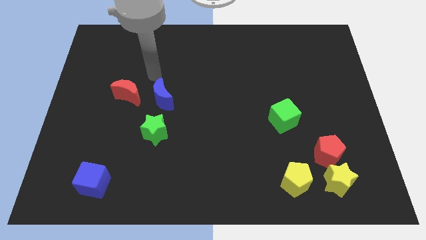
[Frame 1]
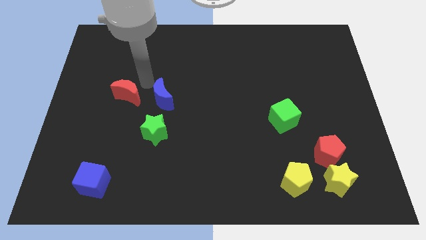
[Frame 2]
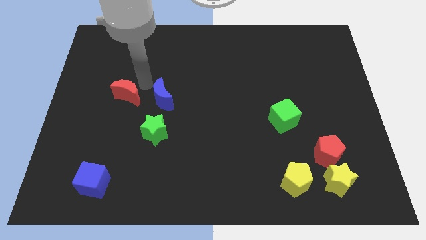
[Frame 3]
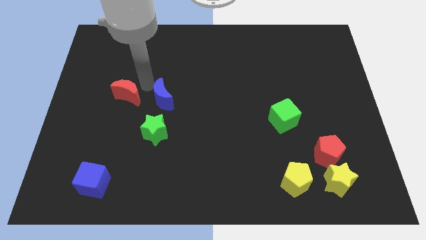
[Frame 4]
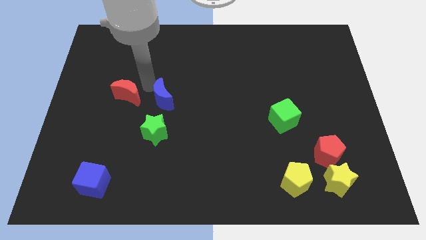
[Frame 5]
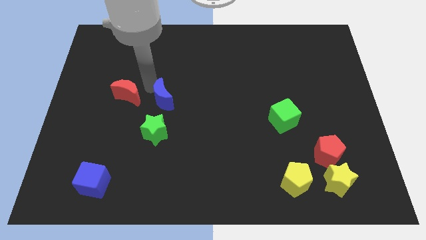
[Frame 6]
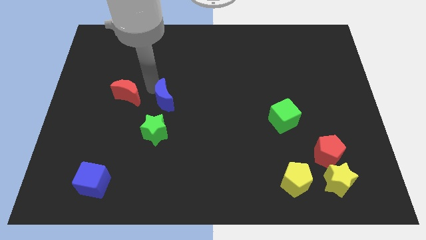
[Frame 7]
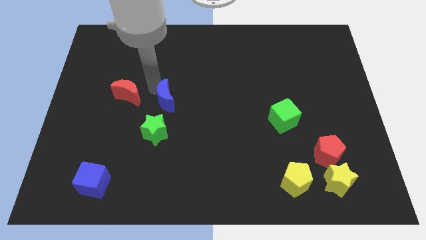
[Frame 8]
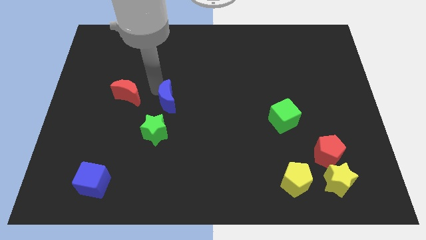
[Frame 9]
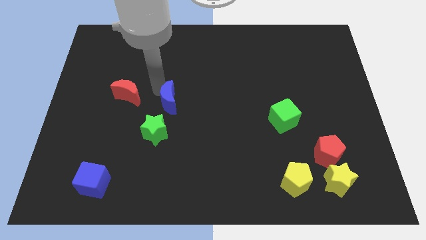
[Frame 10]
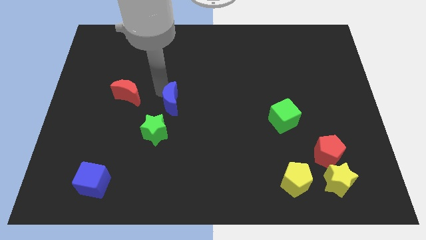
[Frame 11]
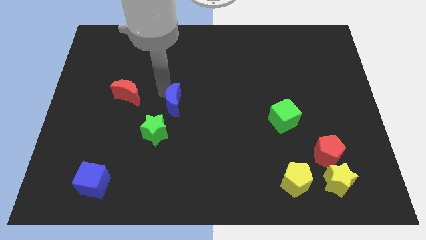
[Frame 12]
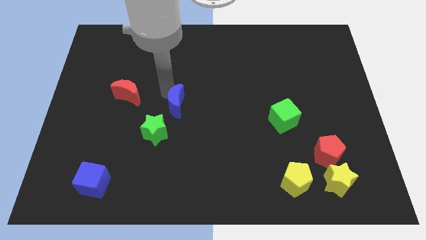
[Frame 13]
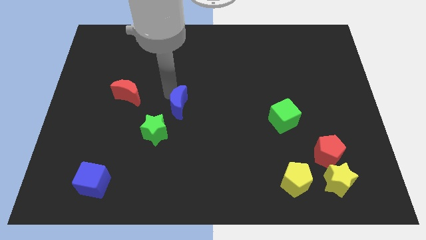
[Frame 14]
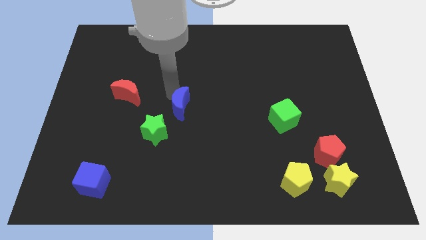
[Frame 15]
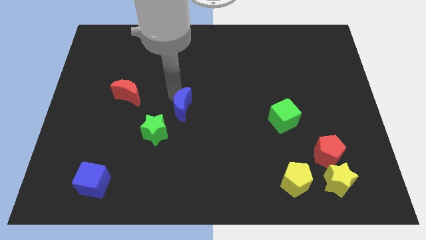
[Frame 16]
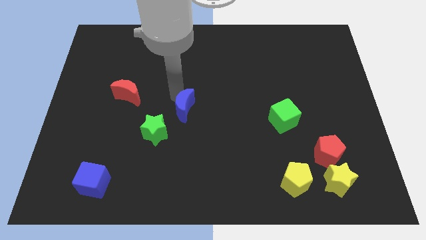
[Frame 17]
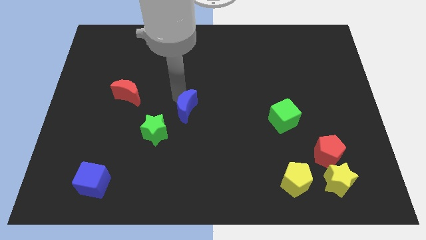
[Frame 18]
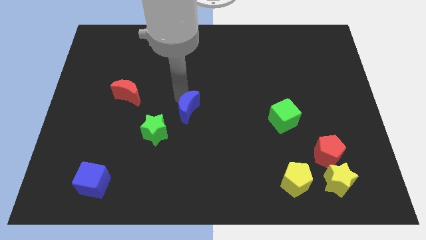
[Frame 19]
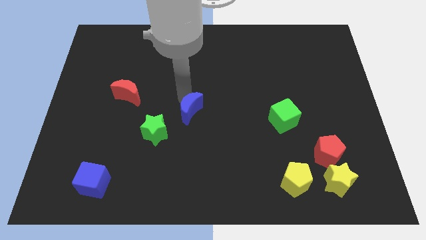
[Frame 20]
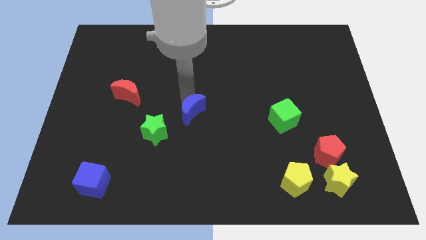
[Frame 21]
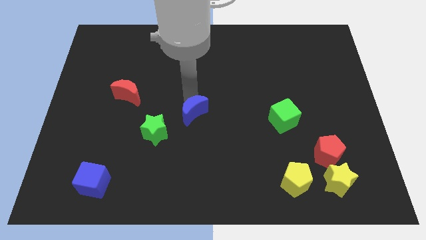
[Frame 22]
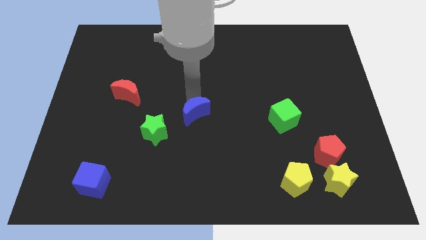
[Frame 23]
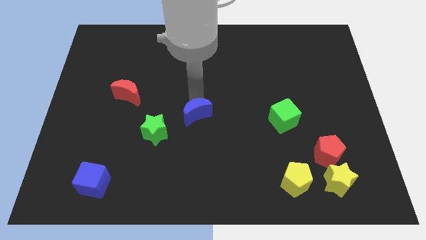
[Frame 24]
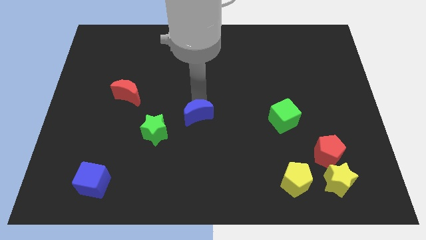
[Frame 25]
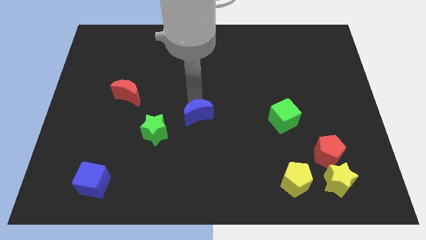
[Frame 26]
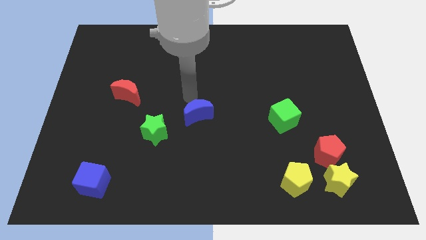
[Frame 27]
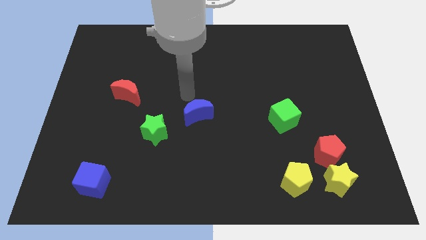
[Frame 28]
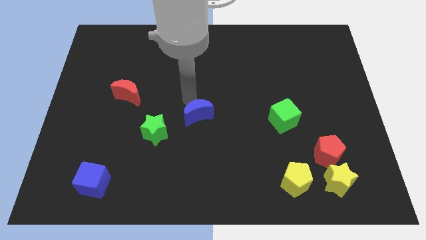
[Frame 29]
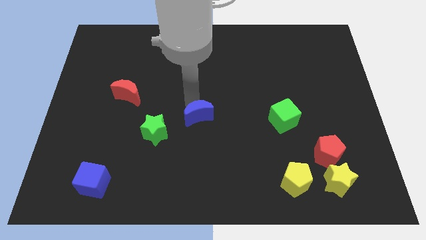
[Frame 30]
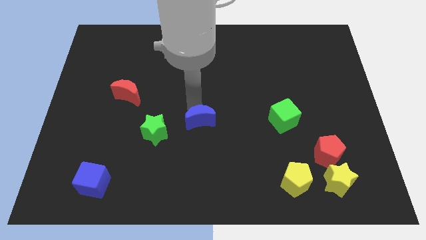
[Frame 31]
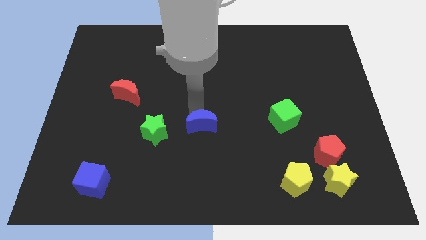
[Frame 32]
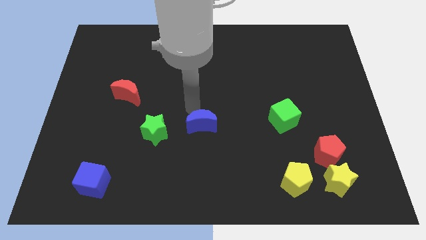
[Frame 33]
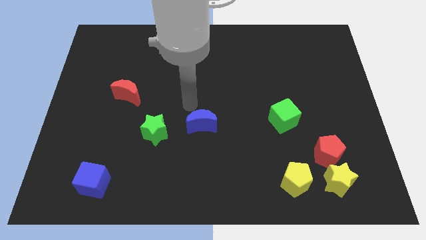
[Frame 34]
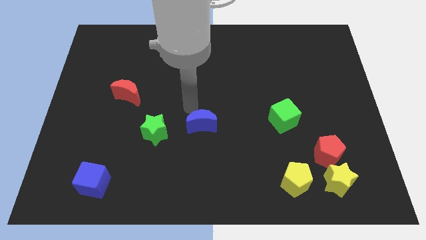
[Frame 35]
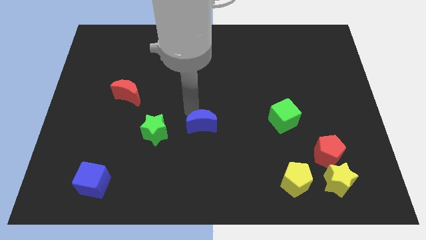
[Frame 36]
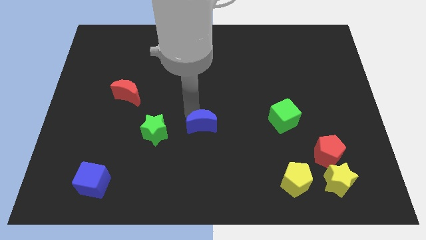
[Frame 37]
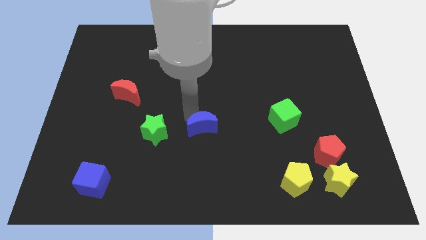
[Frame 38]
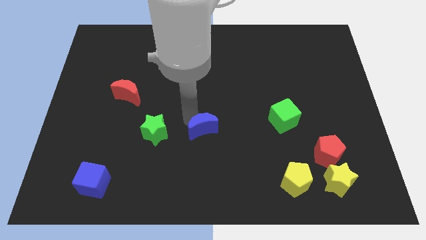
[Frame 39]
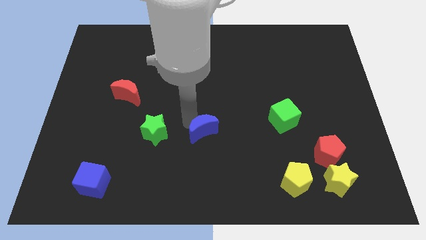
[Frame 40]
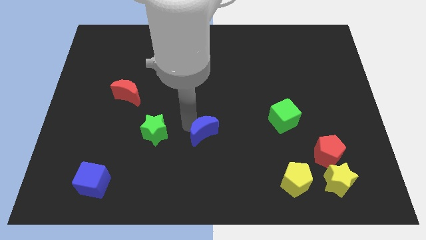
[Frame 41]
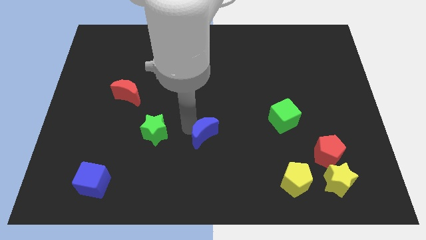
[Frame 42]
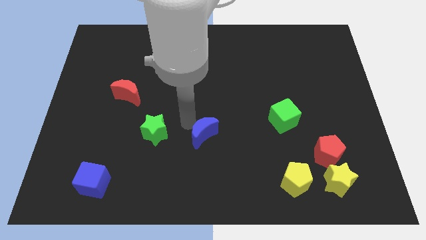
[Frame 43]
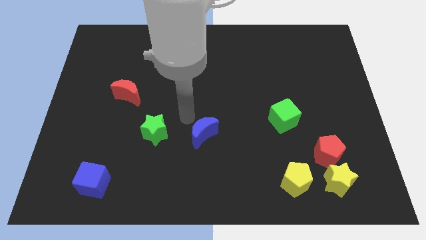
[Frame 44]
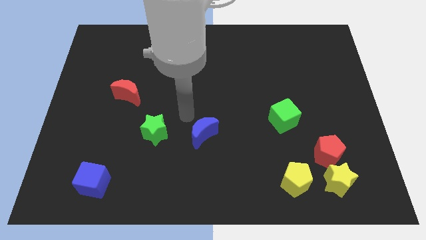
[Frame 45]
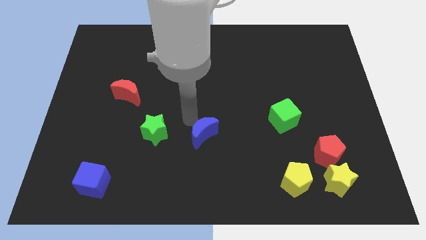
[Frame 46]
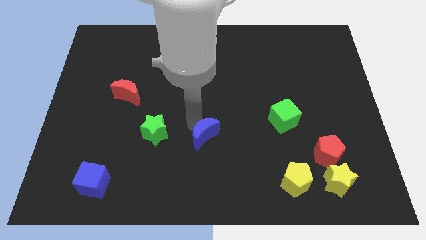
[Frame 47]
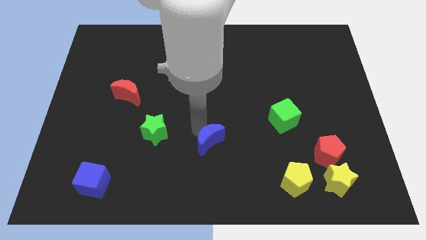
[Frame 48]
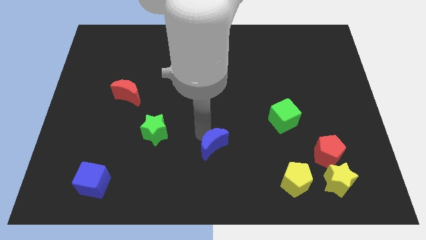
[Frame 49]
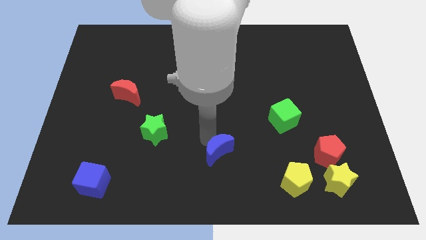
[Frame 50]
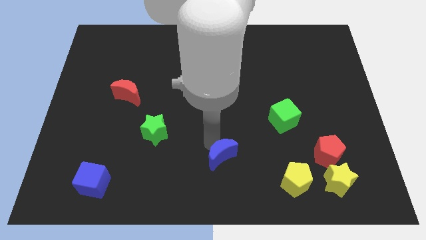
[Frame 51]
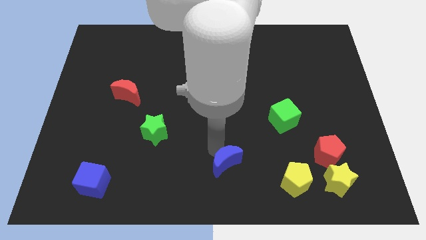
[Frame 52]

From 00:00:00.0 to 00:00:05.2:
move the blue moon to the left of the yellow pentagon

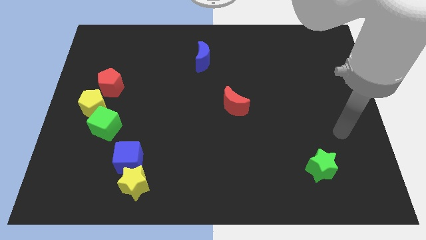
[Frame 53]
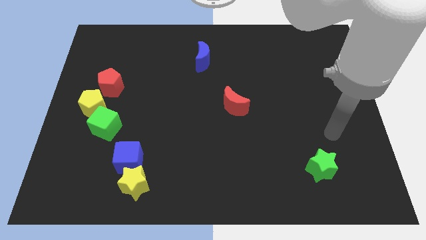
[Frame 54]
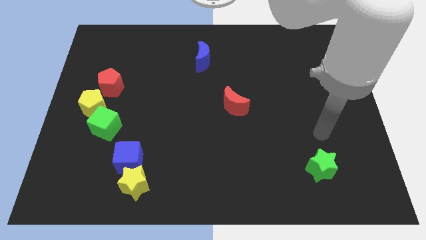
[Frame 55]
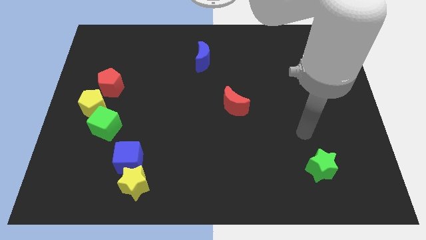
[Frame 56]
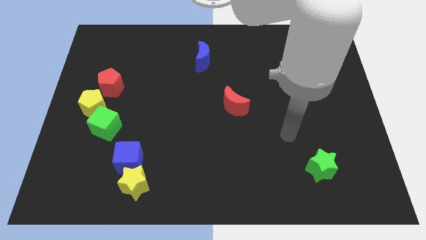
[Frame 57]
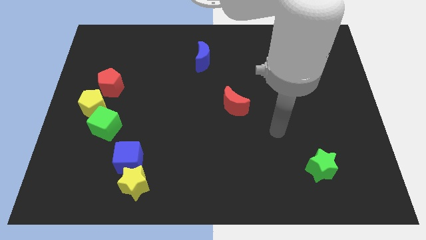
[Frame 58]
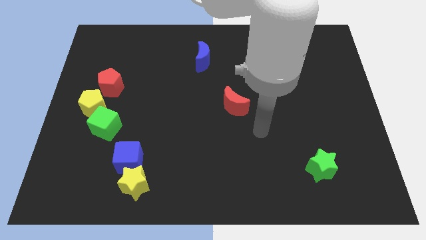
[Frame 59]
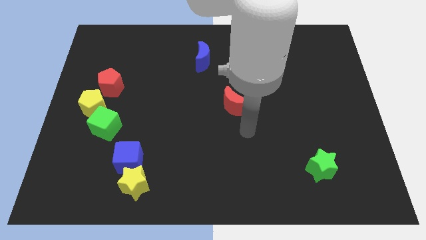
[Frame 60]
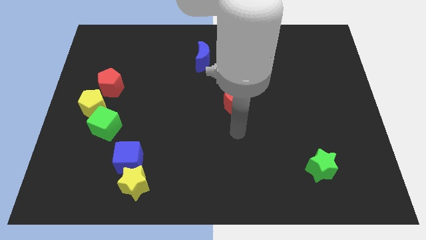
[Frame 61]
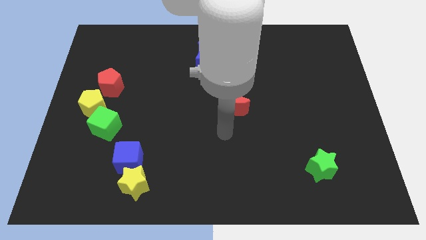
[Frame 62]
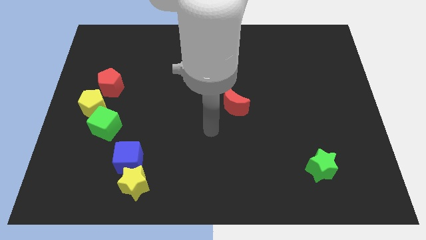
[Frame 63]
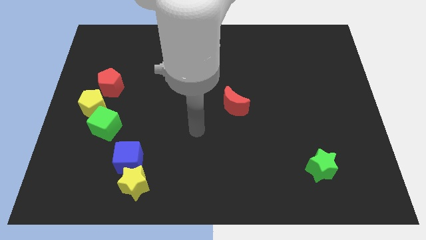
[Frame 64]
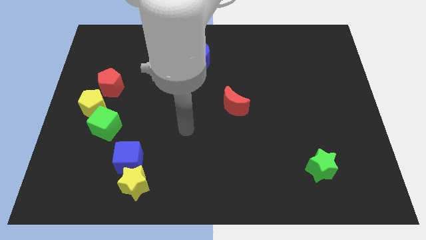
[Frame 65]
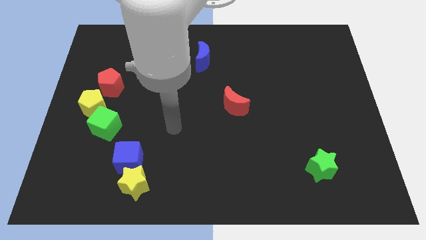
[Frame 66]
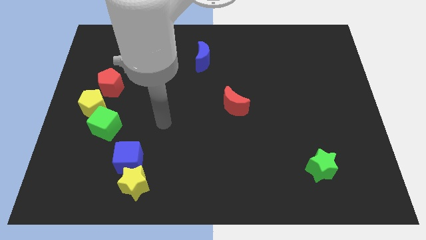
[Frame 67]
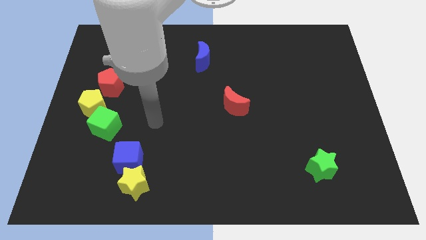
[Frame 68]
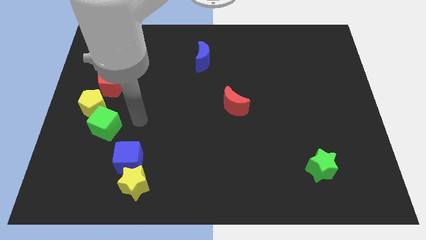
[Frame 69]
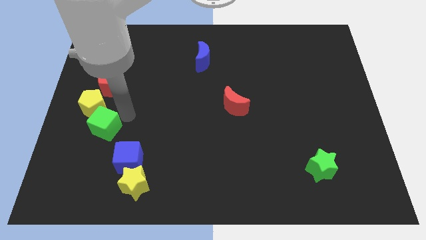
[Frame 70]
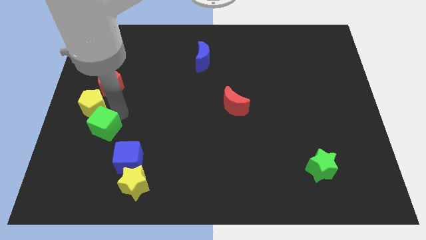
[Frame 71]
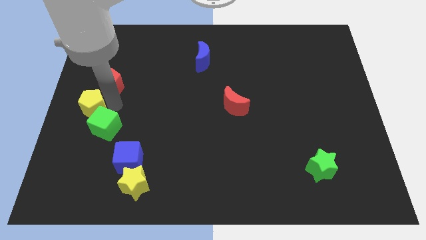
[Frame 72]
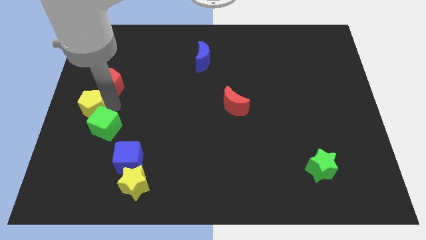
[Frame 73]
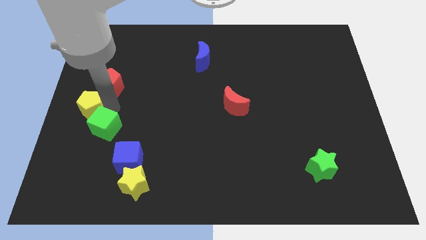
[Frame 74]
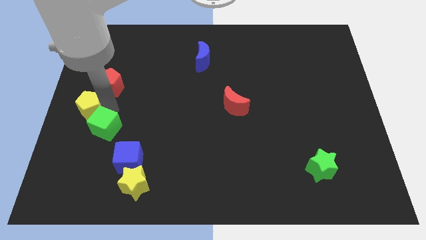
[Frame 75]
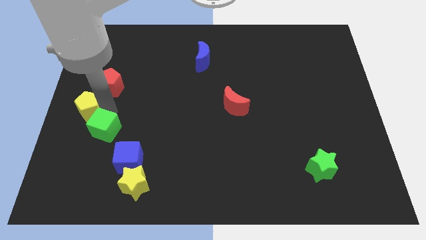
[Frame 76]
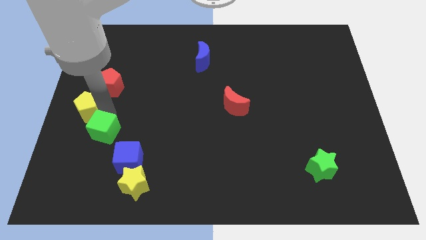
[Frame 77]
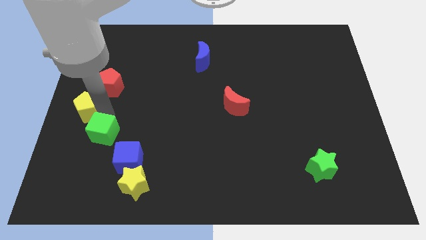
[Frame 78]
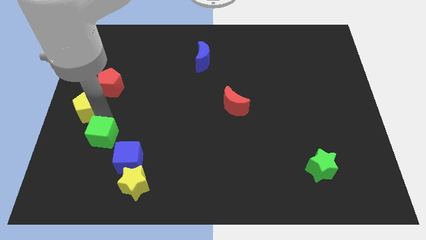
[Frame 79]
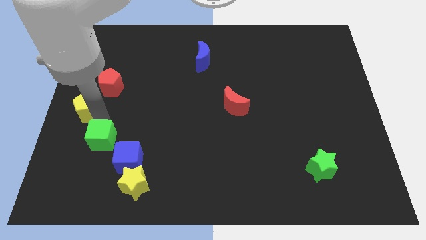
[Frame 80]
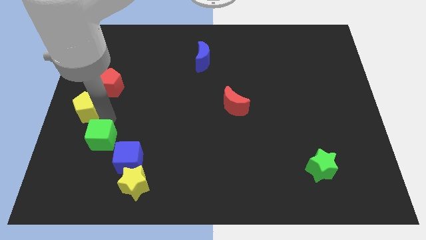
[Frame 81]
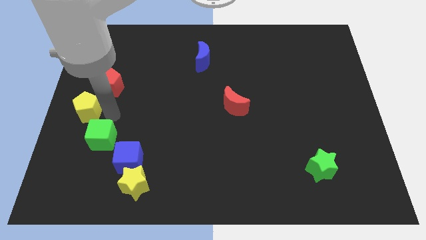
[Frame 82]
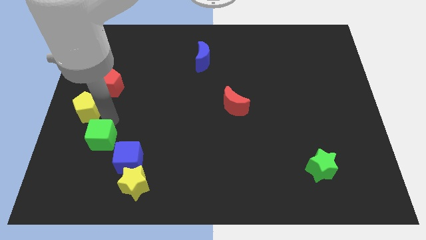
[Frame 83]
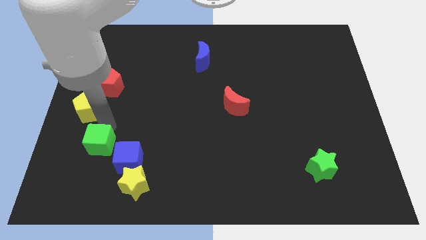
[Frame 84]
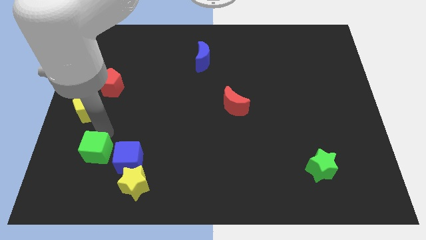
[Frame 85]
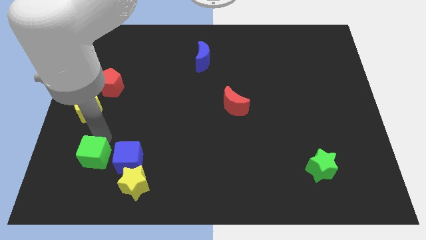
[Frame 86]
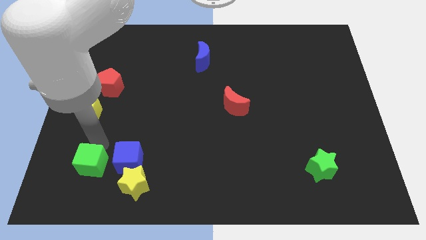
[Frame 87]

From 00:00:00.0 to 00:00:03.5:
slide the green cube left of the yellow star
